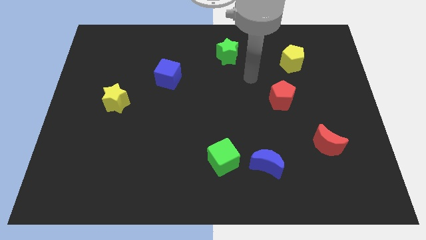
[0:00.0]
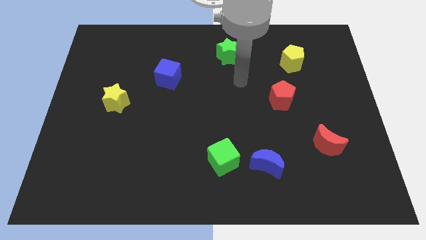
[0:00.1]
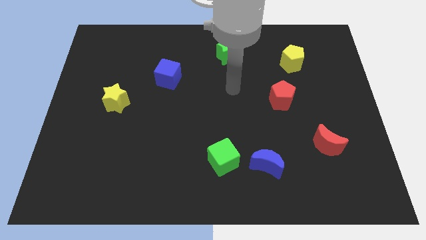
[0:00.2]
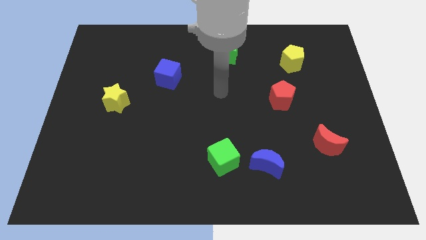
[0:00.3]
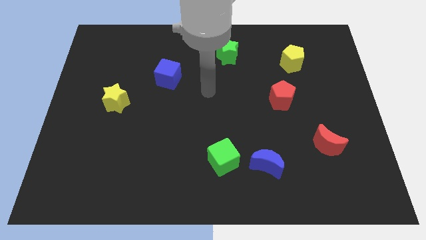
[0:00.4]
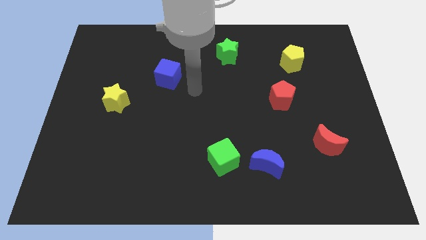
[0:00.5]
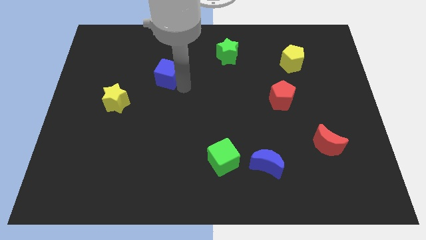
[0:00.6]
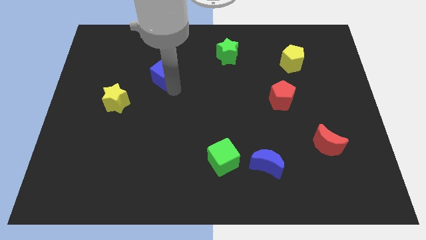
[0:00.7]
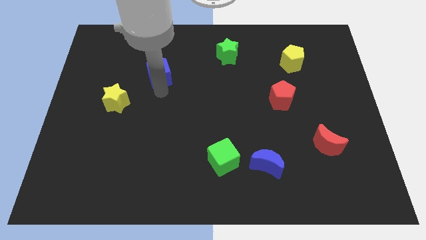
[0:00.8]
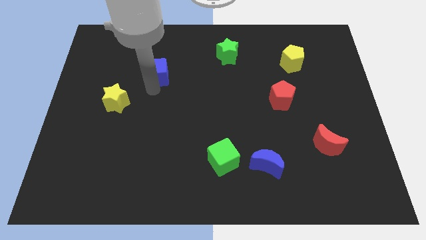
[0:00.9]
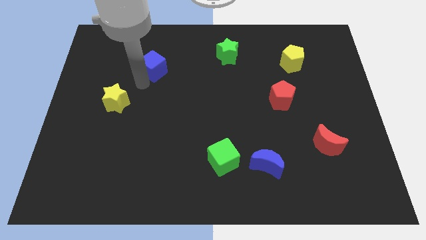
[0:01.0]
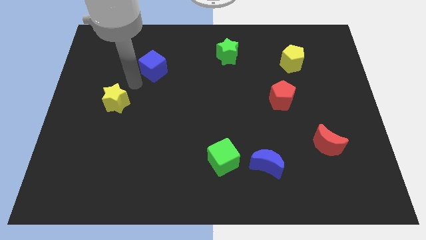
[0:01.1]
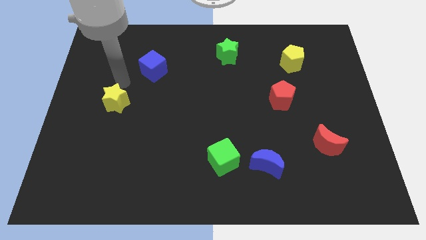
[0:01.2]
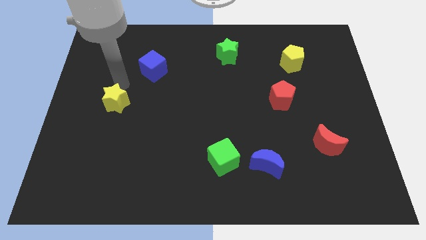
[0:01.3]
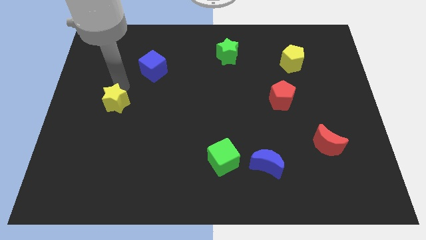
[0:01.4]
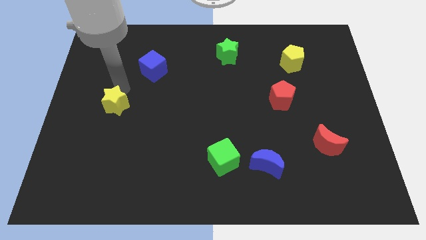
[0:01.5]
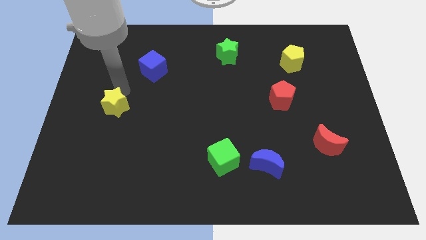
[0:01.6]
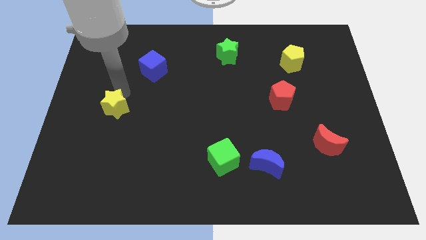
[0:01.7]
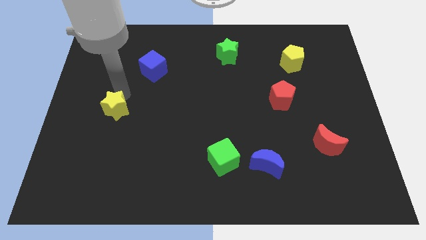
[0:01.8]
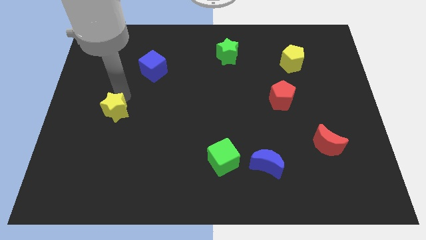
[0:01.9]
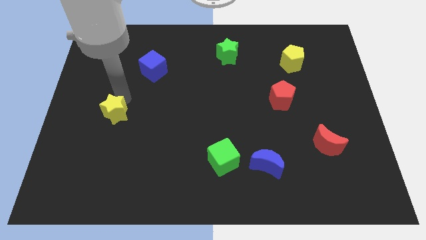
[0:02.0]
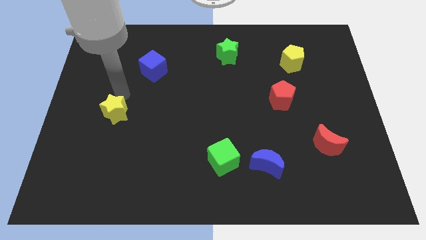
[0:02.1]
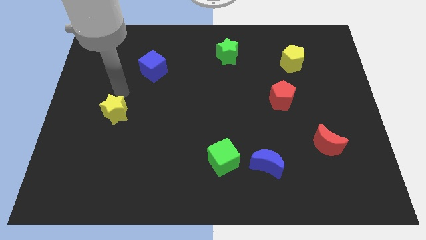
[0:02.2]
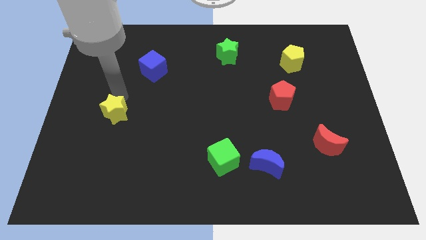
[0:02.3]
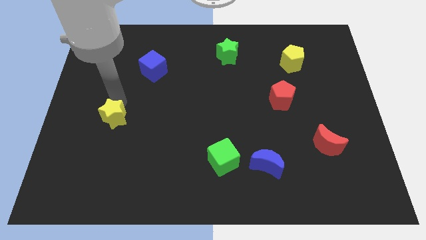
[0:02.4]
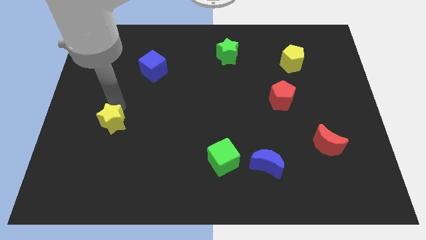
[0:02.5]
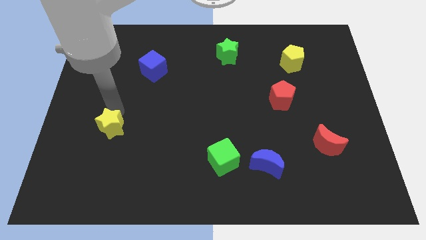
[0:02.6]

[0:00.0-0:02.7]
move the yellow star a little bit downwards

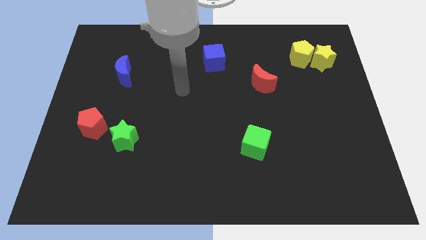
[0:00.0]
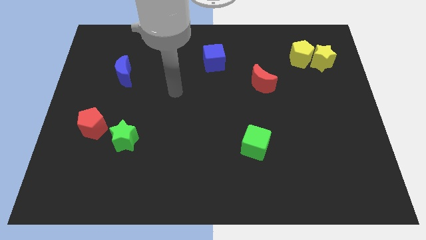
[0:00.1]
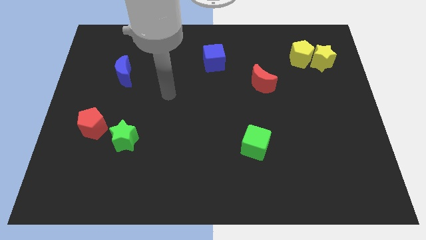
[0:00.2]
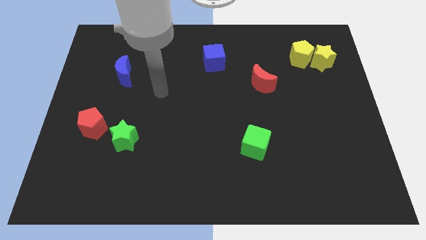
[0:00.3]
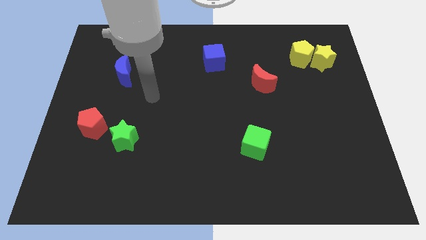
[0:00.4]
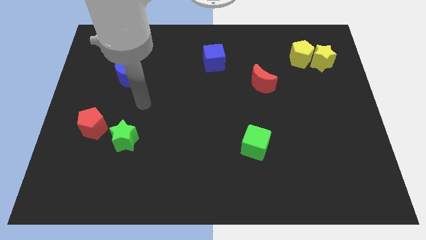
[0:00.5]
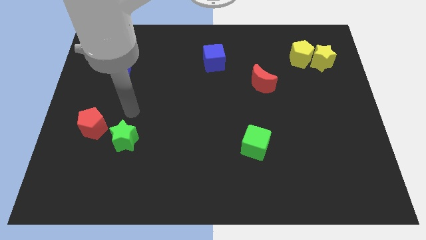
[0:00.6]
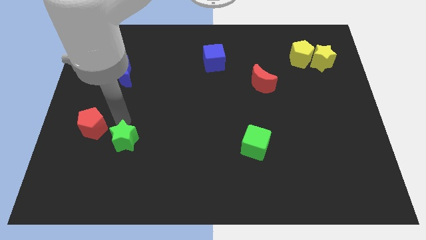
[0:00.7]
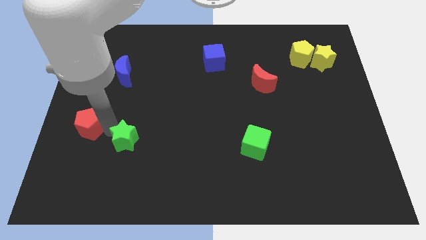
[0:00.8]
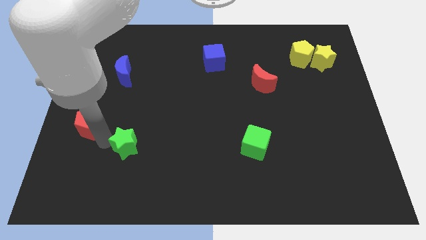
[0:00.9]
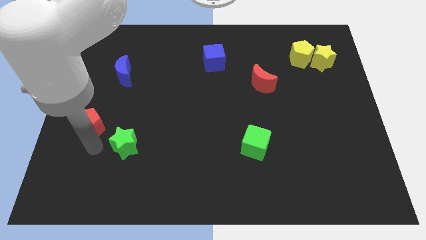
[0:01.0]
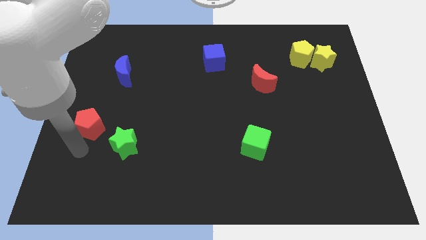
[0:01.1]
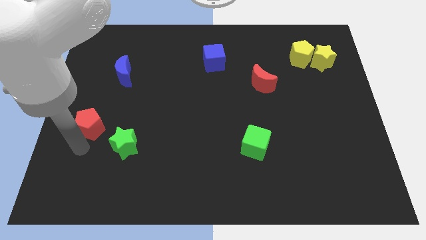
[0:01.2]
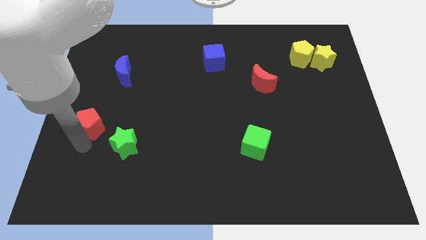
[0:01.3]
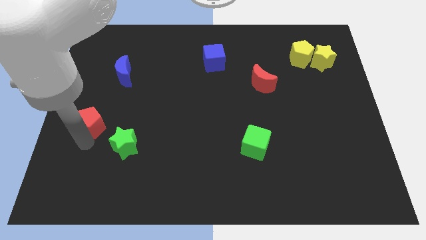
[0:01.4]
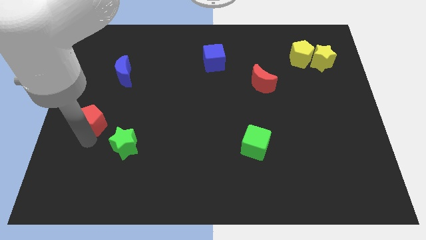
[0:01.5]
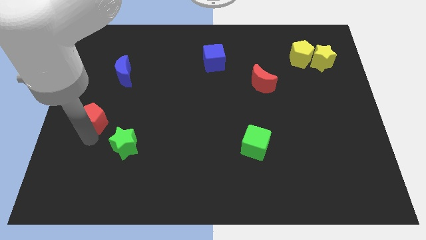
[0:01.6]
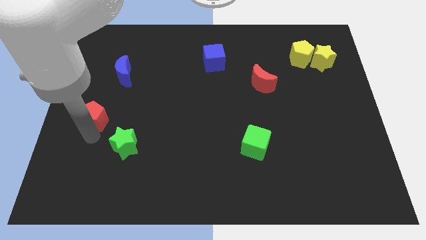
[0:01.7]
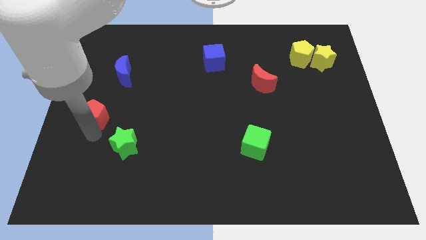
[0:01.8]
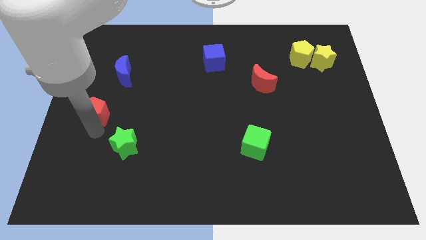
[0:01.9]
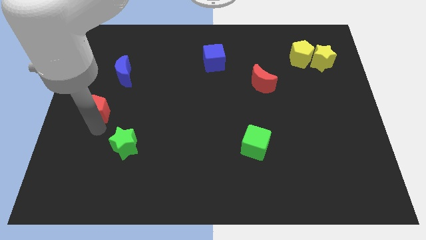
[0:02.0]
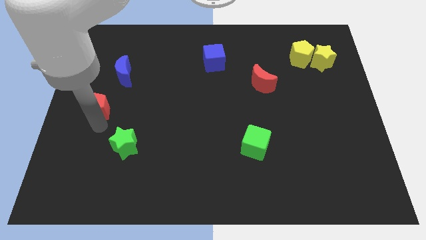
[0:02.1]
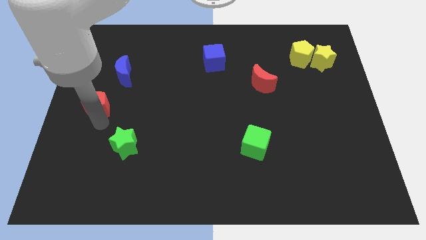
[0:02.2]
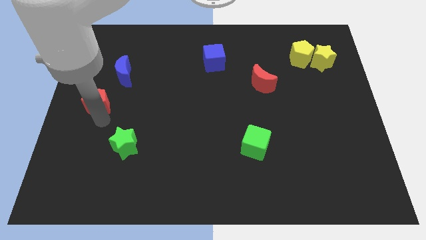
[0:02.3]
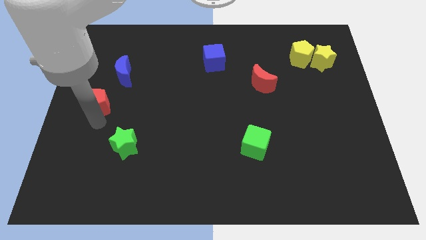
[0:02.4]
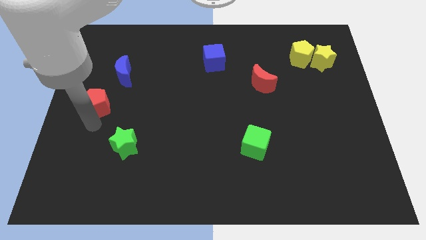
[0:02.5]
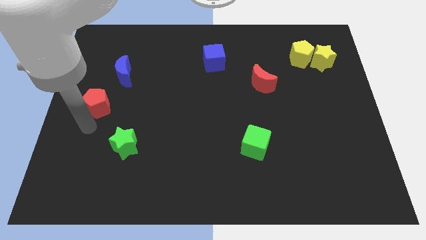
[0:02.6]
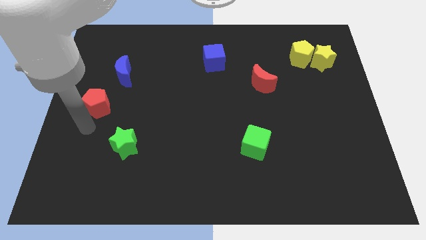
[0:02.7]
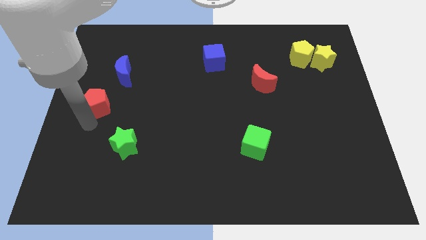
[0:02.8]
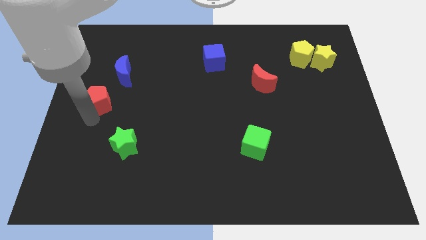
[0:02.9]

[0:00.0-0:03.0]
slide the red pentagon upwards slightly

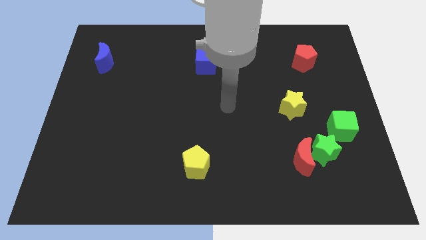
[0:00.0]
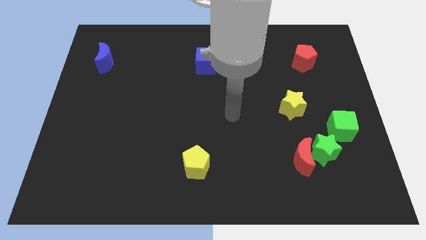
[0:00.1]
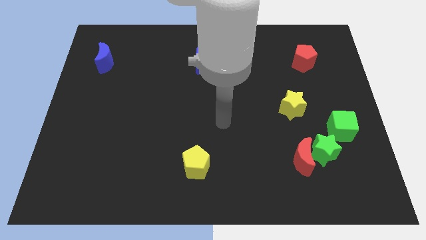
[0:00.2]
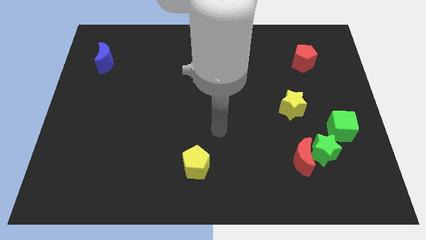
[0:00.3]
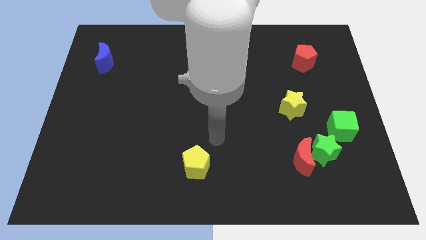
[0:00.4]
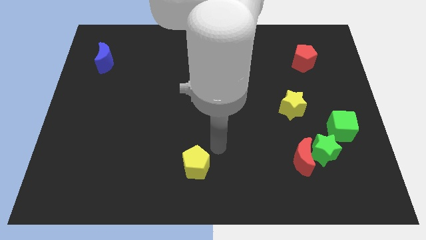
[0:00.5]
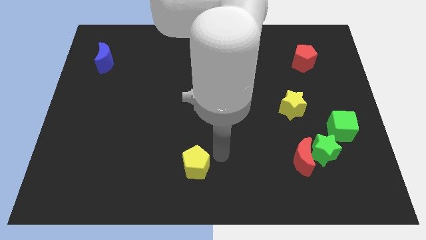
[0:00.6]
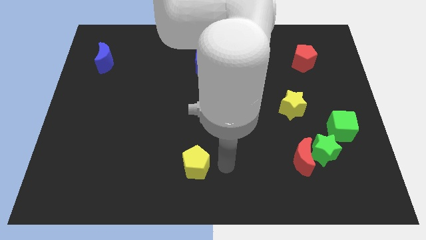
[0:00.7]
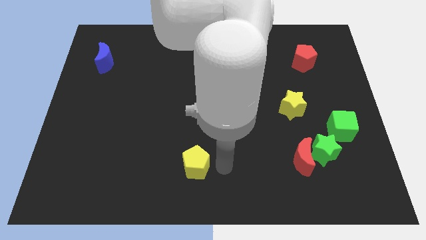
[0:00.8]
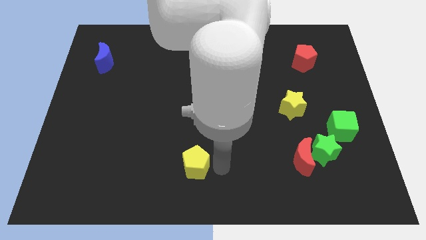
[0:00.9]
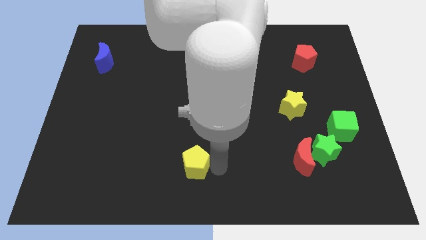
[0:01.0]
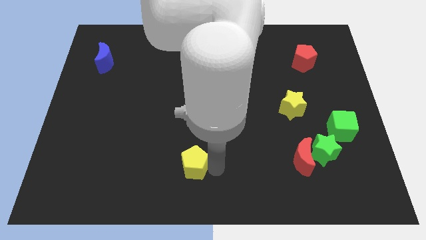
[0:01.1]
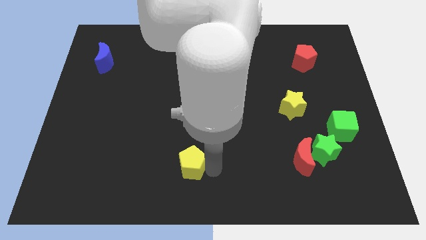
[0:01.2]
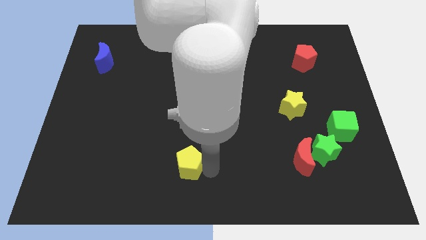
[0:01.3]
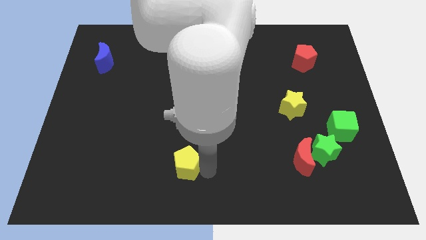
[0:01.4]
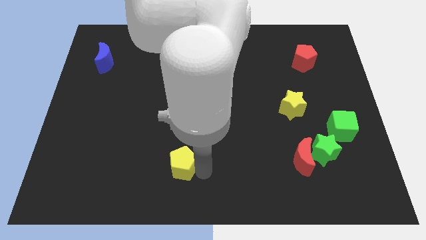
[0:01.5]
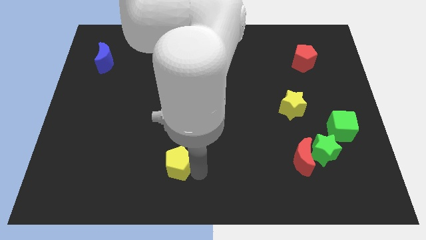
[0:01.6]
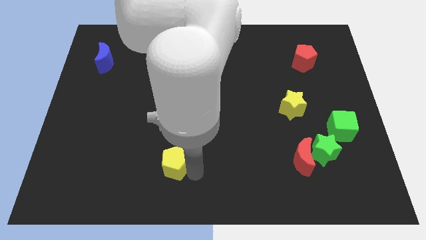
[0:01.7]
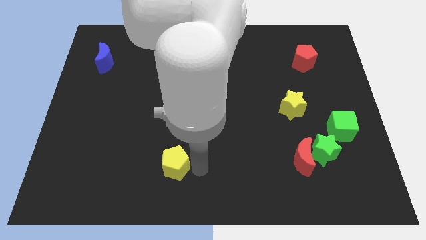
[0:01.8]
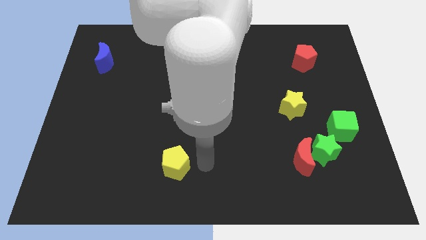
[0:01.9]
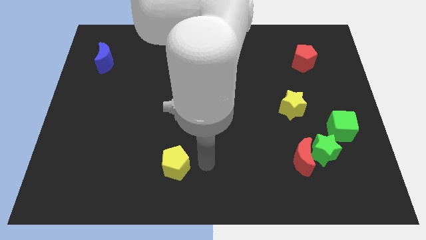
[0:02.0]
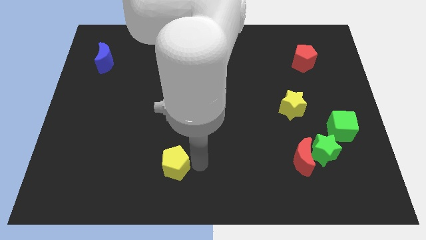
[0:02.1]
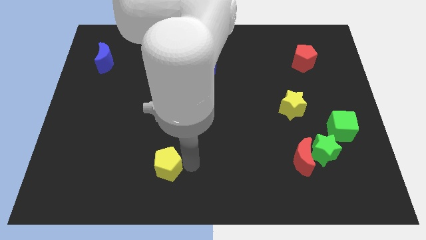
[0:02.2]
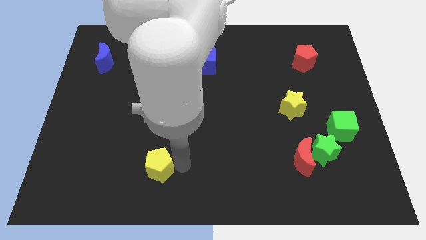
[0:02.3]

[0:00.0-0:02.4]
slightly slide the yellow pentagon left
